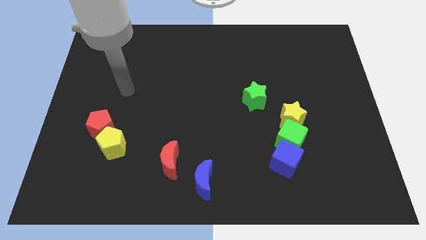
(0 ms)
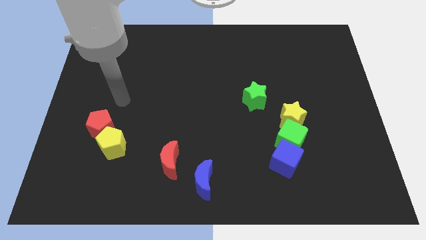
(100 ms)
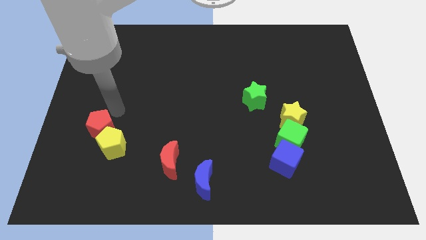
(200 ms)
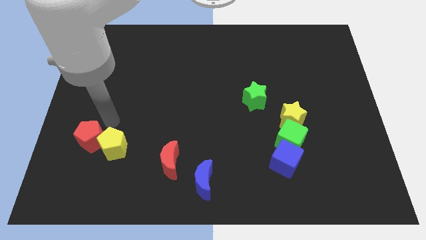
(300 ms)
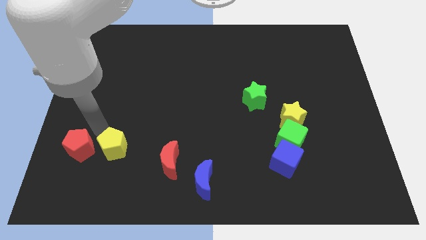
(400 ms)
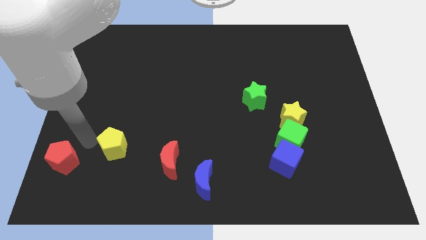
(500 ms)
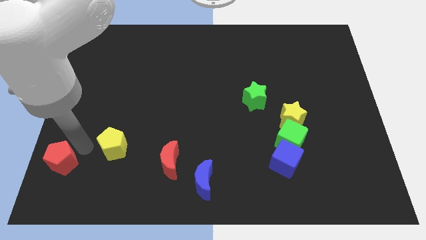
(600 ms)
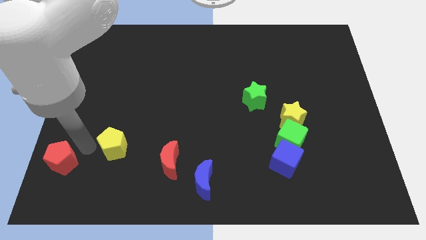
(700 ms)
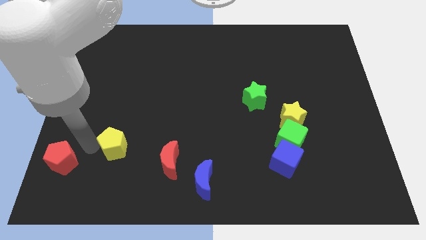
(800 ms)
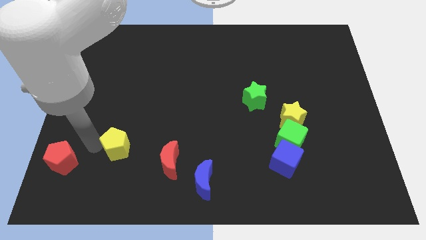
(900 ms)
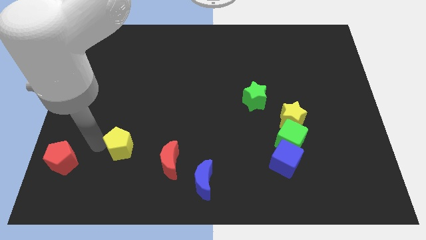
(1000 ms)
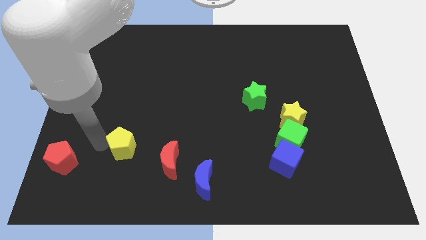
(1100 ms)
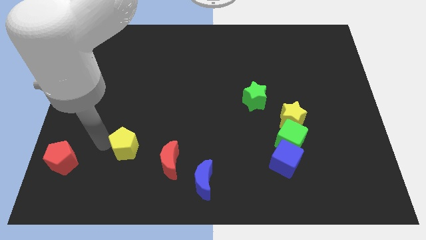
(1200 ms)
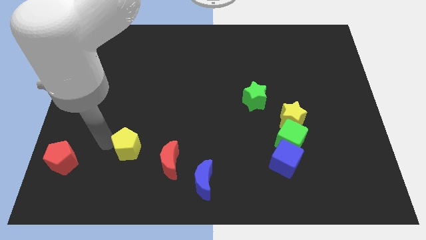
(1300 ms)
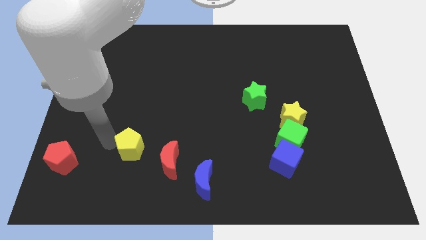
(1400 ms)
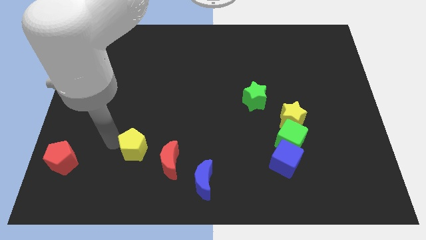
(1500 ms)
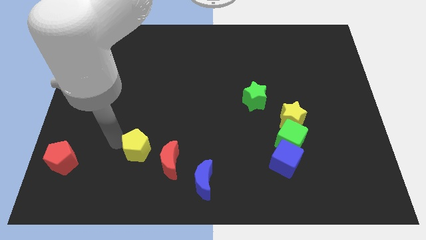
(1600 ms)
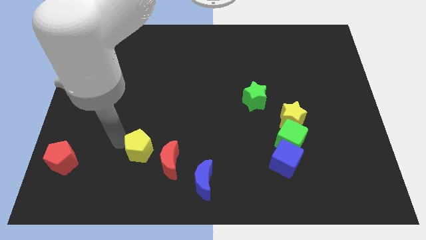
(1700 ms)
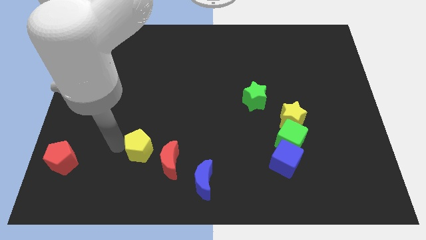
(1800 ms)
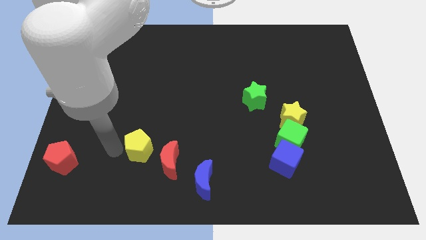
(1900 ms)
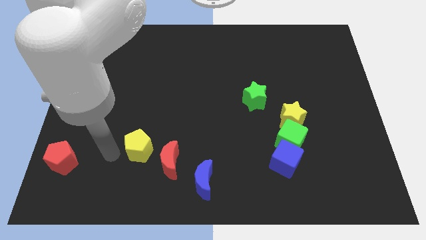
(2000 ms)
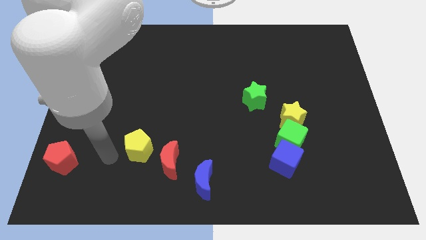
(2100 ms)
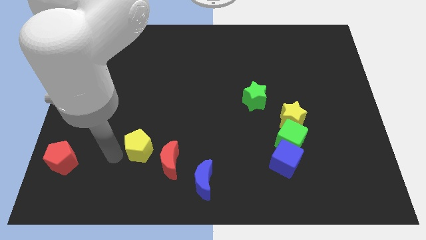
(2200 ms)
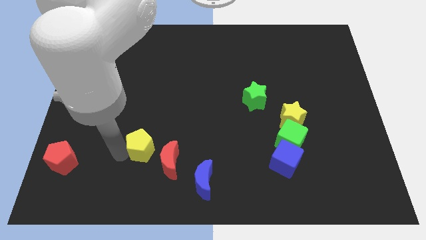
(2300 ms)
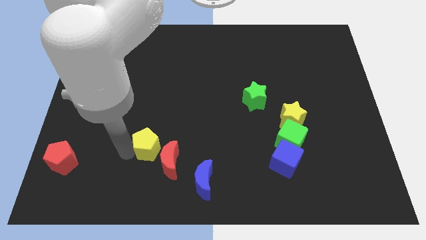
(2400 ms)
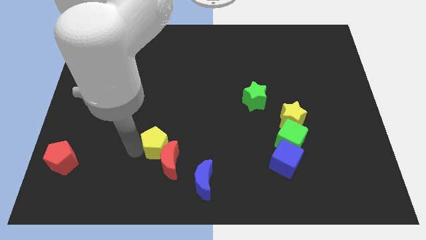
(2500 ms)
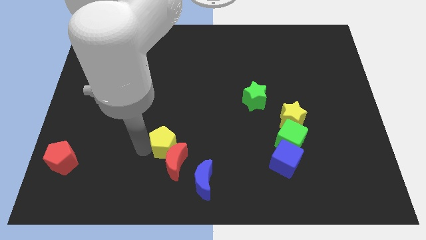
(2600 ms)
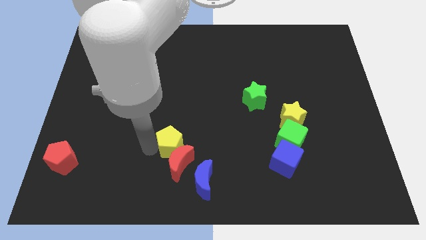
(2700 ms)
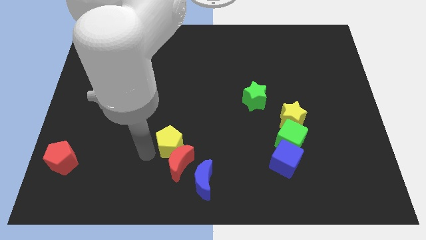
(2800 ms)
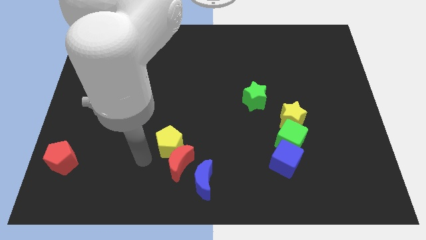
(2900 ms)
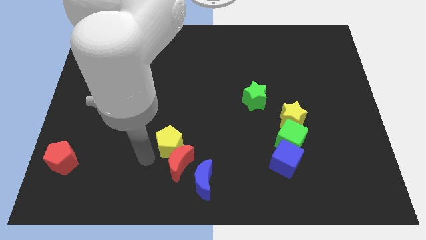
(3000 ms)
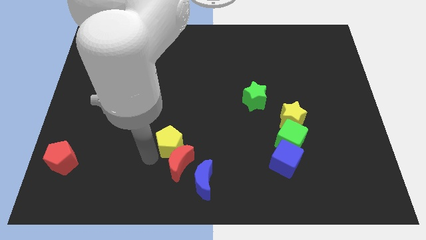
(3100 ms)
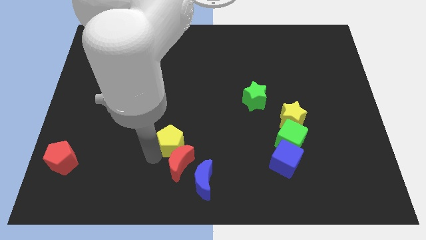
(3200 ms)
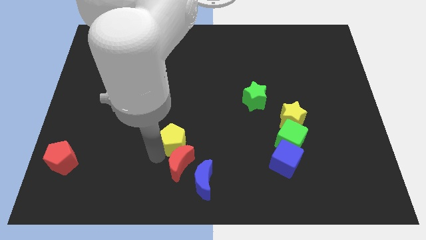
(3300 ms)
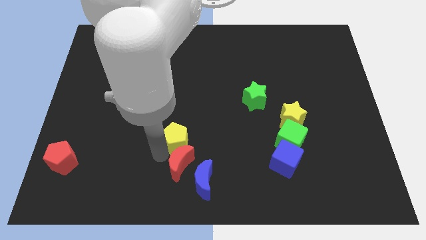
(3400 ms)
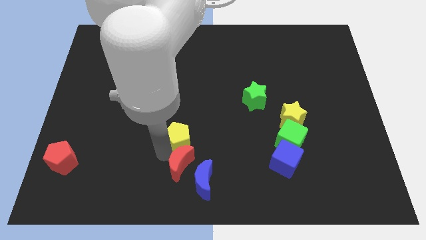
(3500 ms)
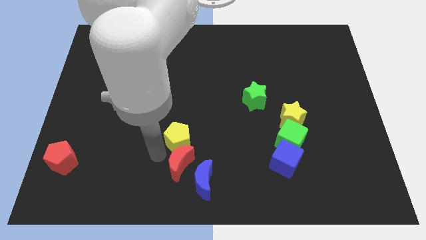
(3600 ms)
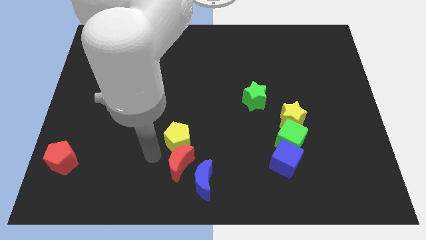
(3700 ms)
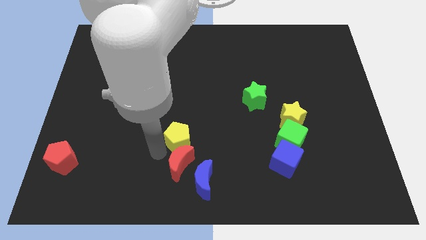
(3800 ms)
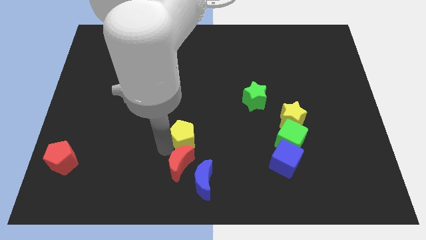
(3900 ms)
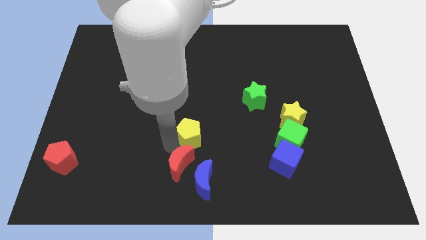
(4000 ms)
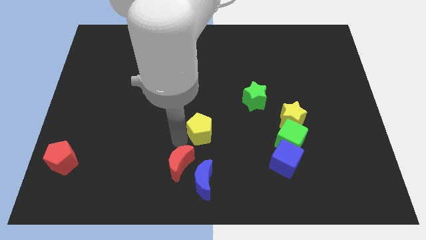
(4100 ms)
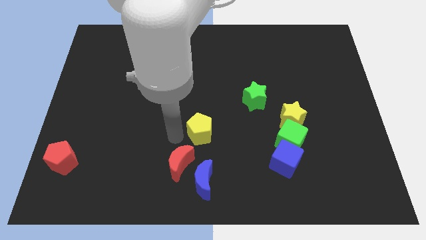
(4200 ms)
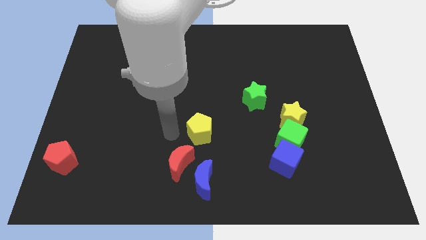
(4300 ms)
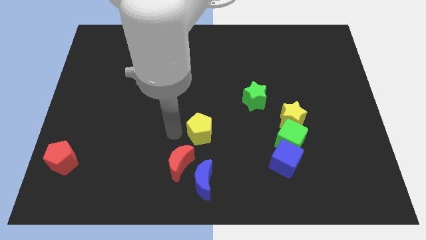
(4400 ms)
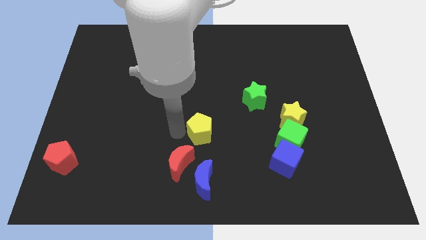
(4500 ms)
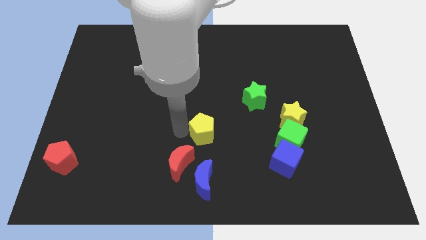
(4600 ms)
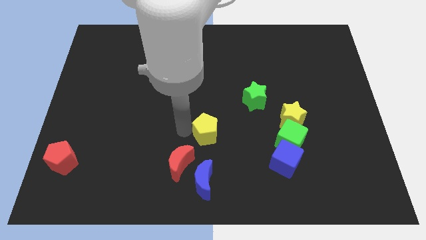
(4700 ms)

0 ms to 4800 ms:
move the yellow pentagon right

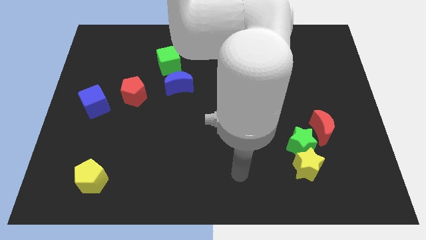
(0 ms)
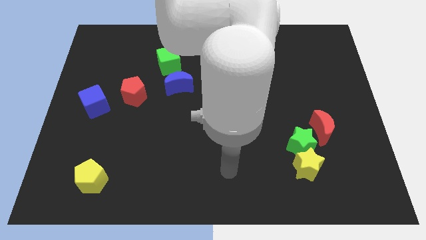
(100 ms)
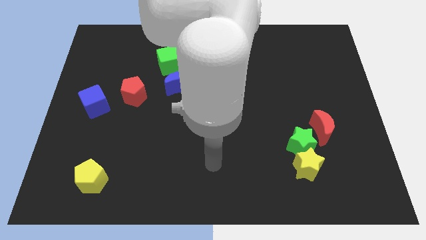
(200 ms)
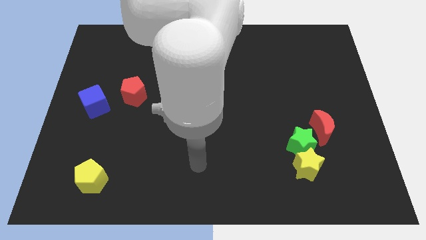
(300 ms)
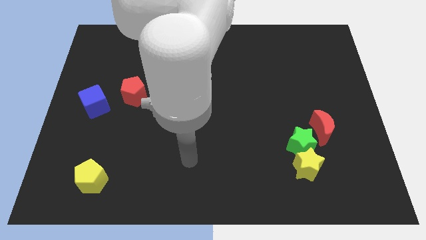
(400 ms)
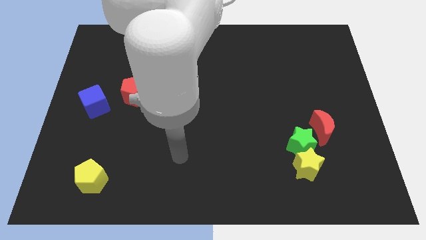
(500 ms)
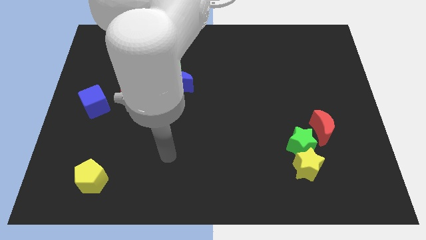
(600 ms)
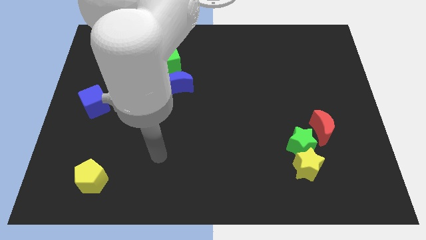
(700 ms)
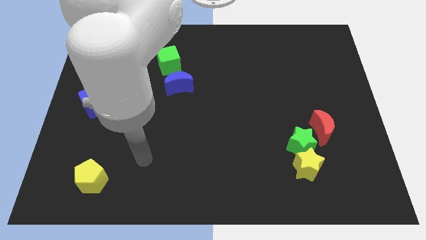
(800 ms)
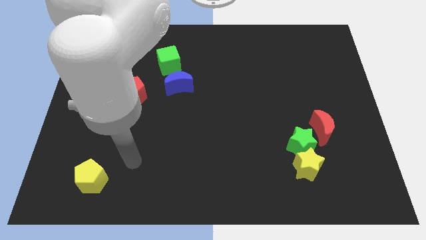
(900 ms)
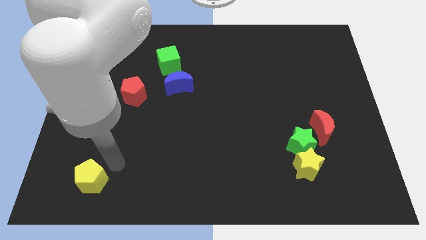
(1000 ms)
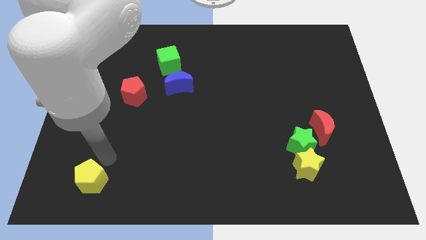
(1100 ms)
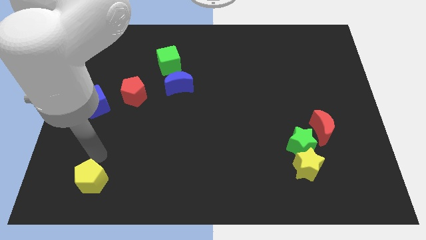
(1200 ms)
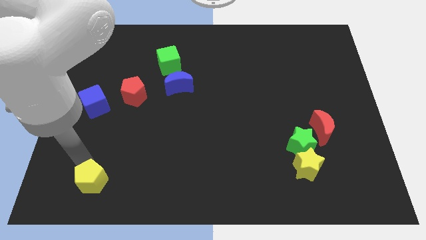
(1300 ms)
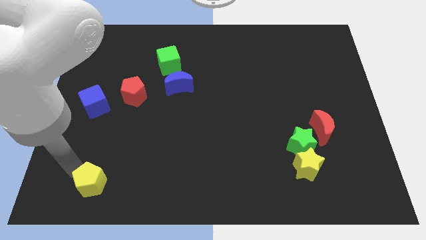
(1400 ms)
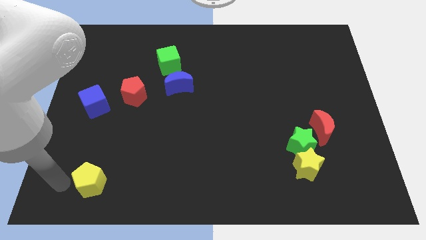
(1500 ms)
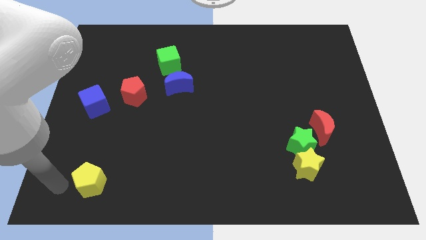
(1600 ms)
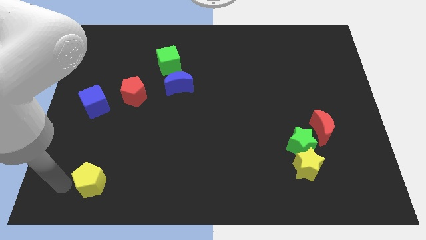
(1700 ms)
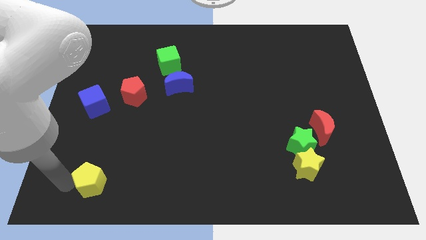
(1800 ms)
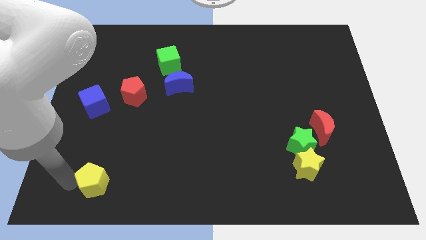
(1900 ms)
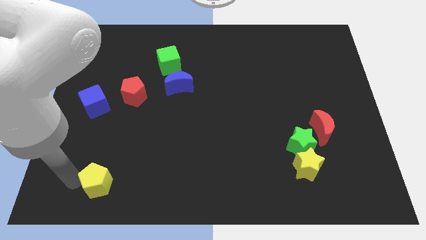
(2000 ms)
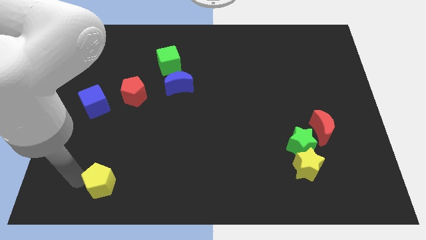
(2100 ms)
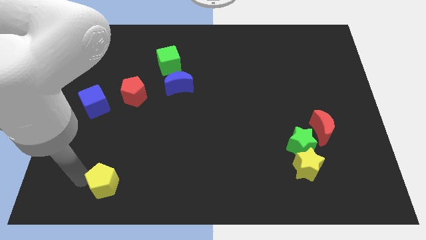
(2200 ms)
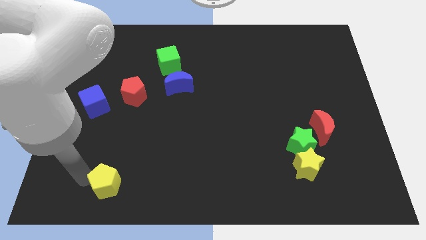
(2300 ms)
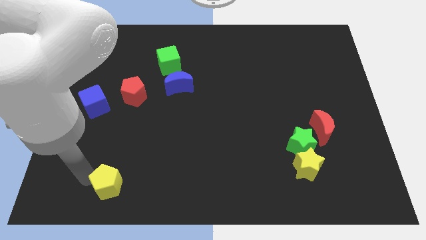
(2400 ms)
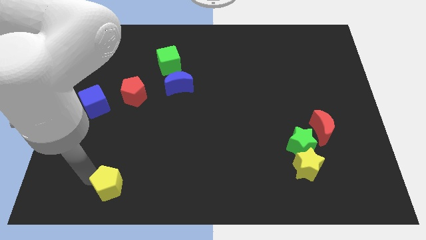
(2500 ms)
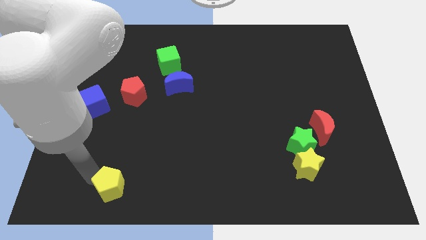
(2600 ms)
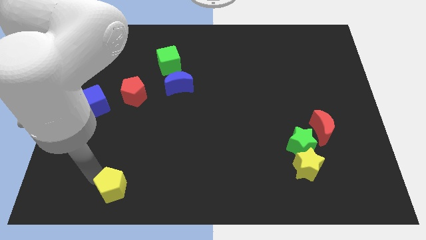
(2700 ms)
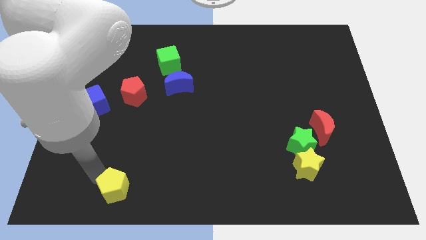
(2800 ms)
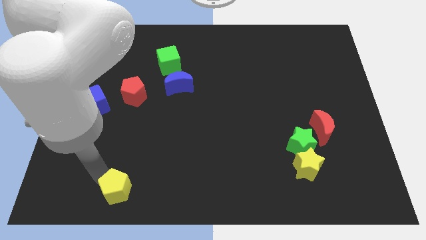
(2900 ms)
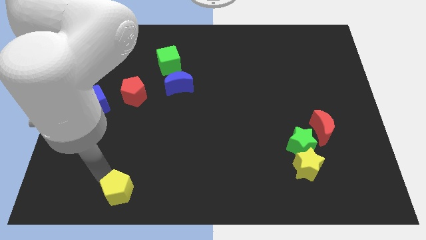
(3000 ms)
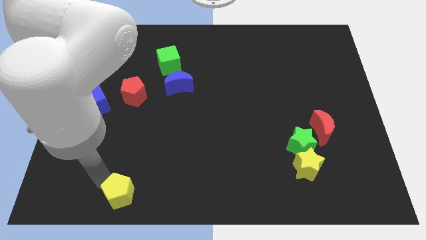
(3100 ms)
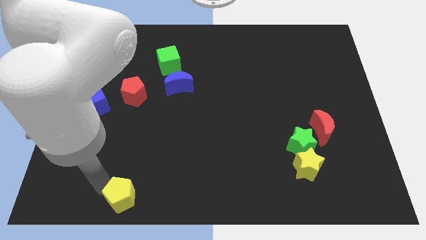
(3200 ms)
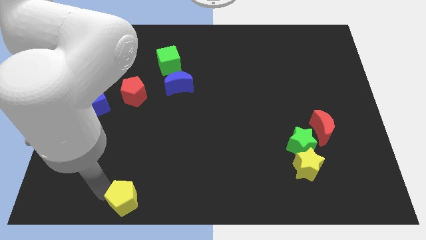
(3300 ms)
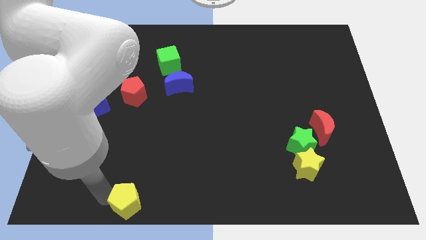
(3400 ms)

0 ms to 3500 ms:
move the yellow pentagon right somewhat
